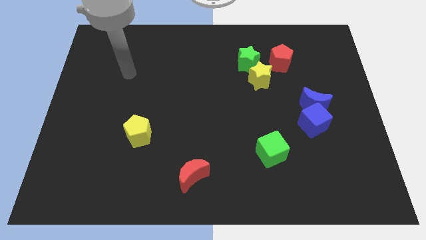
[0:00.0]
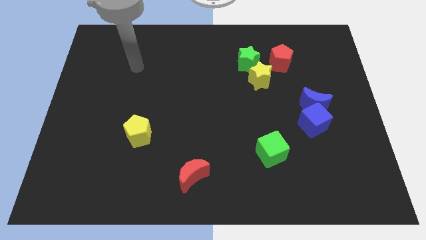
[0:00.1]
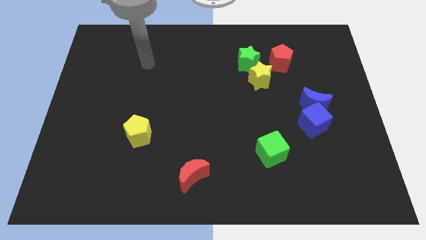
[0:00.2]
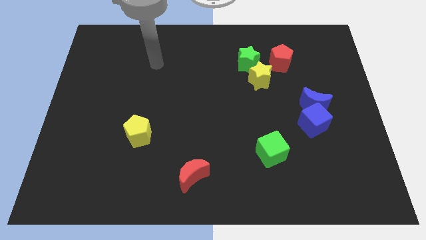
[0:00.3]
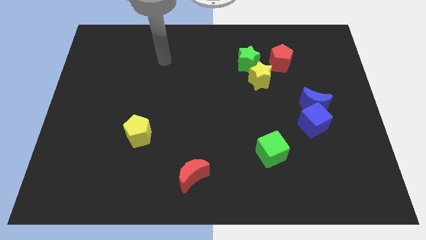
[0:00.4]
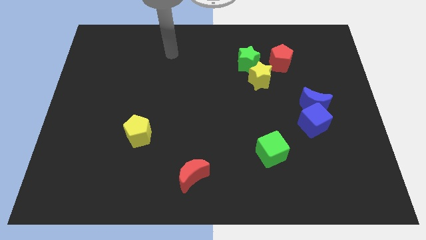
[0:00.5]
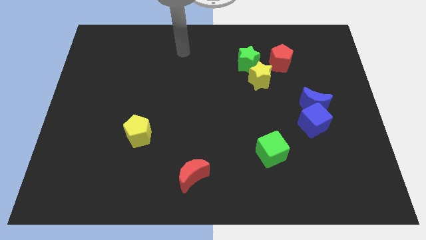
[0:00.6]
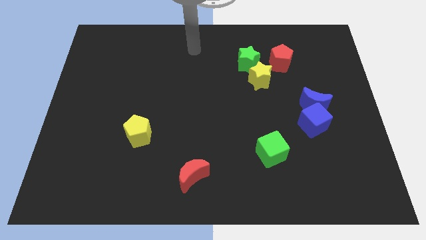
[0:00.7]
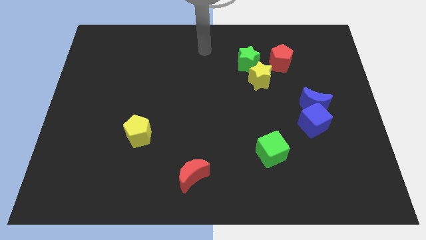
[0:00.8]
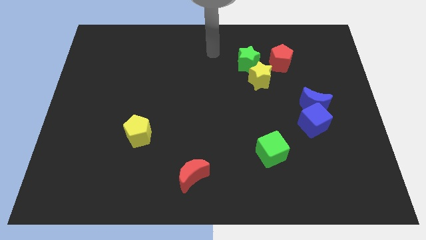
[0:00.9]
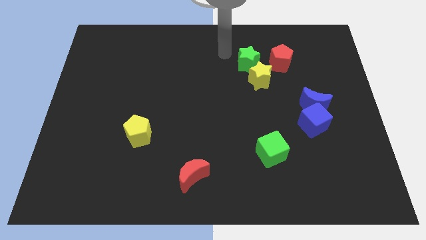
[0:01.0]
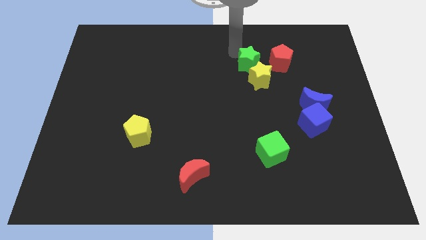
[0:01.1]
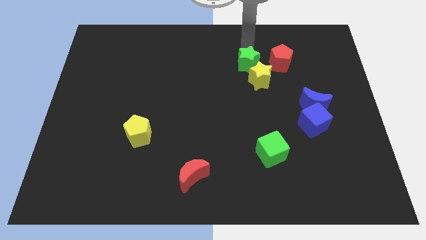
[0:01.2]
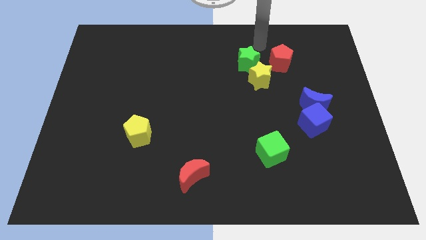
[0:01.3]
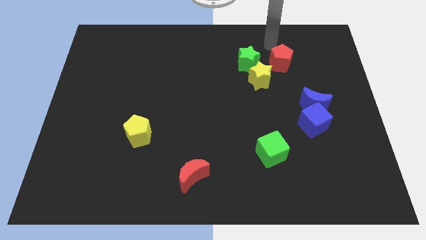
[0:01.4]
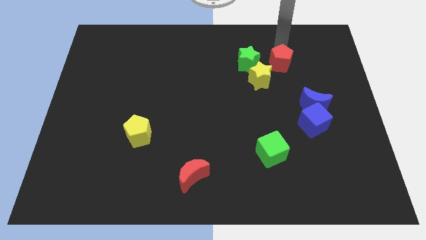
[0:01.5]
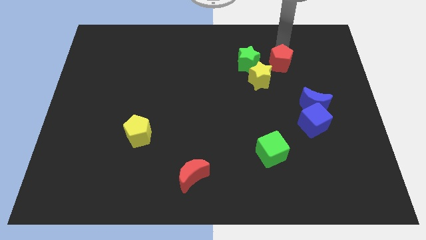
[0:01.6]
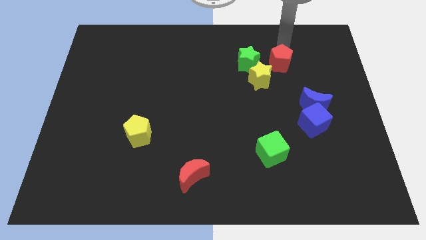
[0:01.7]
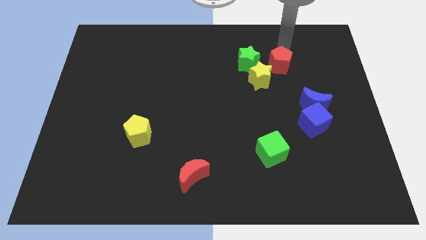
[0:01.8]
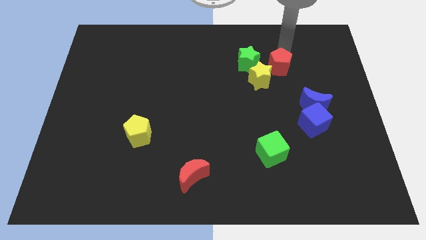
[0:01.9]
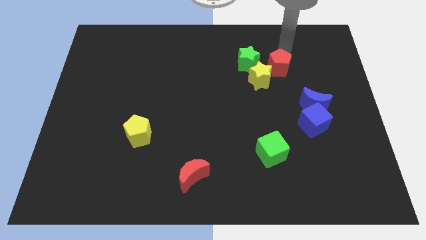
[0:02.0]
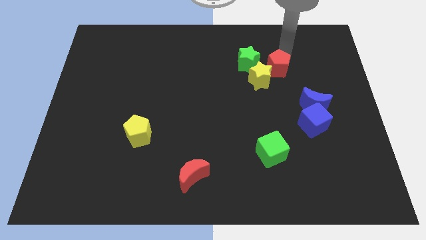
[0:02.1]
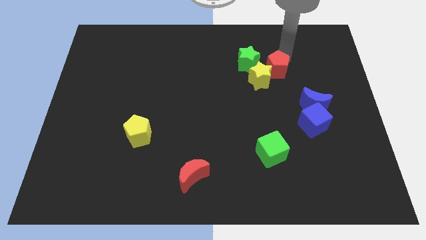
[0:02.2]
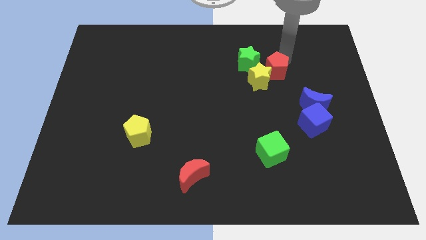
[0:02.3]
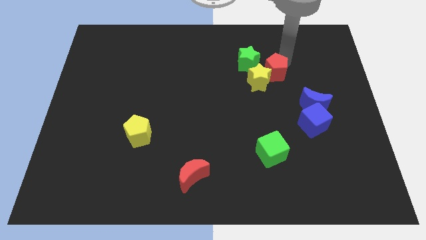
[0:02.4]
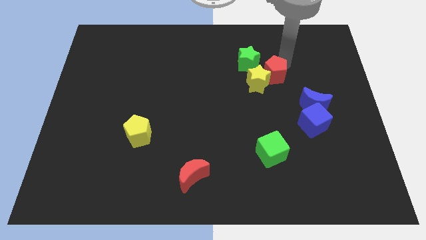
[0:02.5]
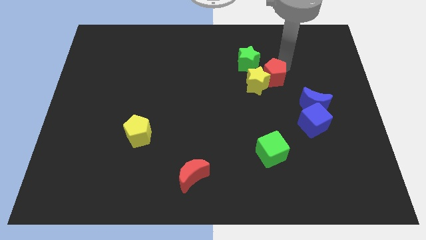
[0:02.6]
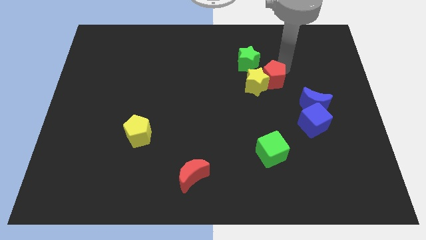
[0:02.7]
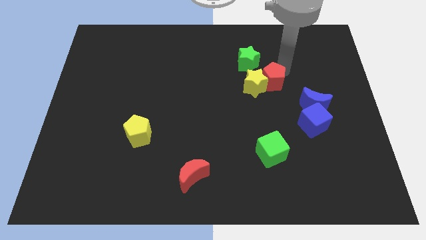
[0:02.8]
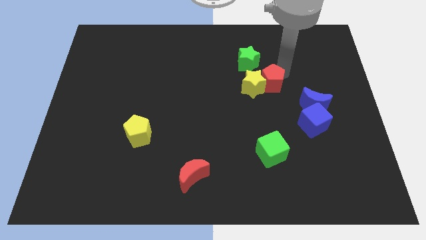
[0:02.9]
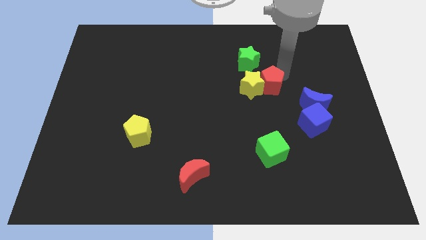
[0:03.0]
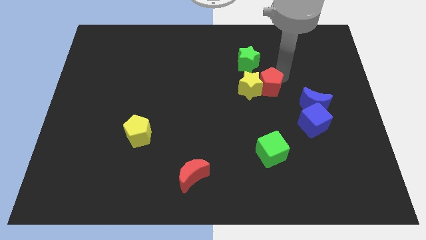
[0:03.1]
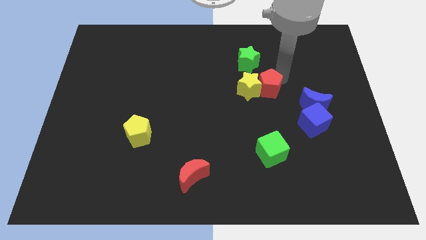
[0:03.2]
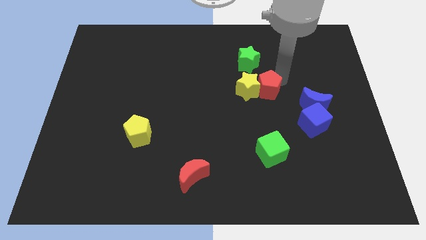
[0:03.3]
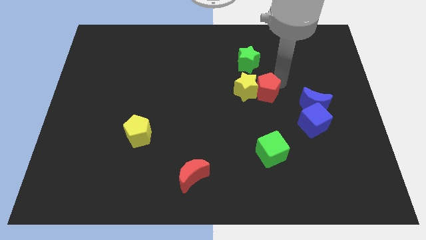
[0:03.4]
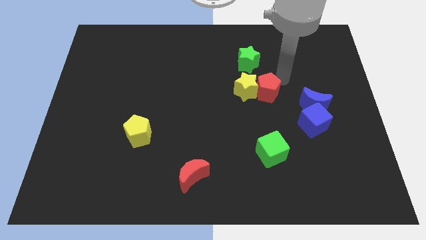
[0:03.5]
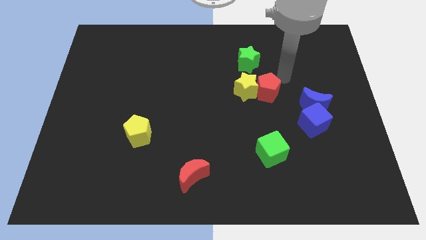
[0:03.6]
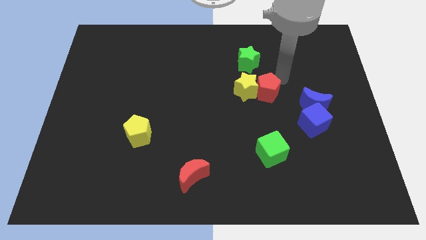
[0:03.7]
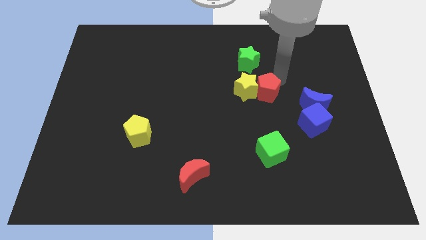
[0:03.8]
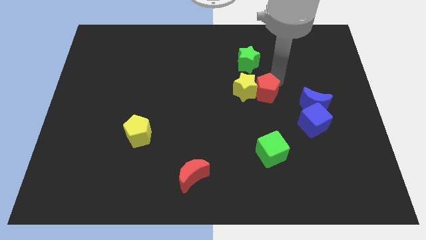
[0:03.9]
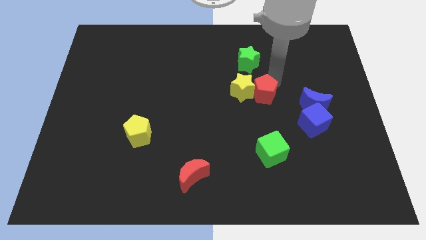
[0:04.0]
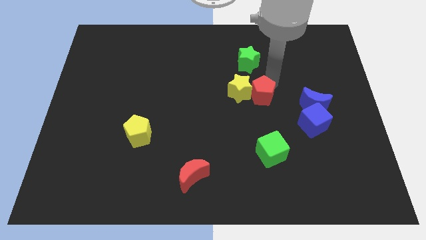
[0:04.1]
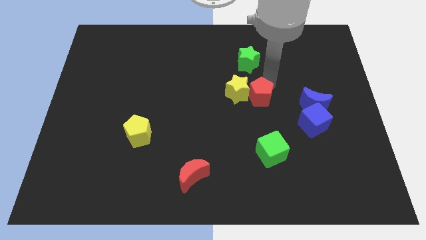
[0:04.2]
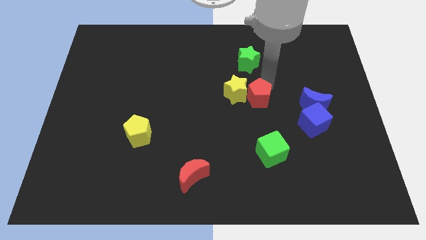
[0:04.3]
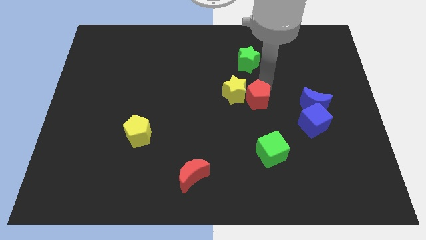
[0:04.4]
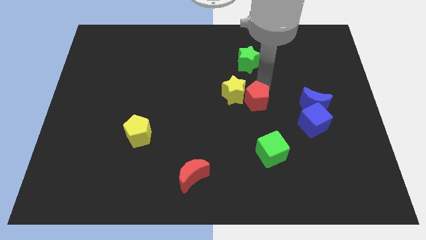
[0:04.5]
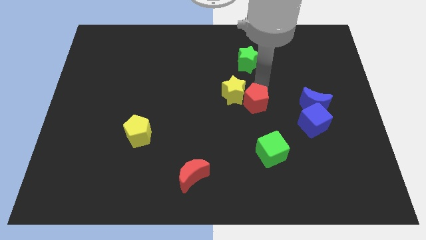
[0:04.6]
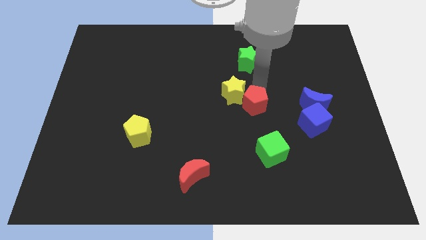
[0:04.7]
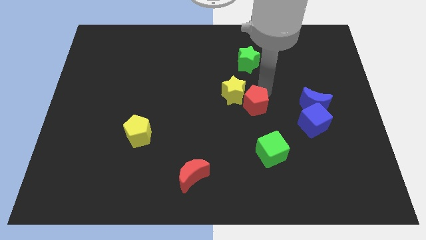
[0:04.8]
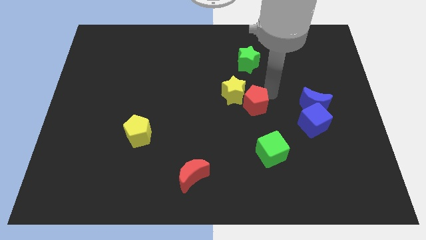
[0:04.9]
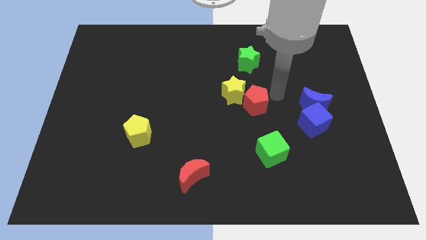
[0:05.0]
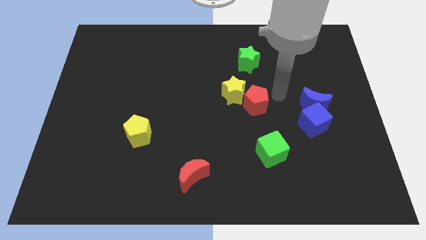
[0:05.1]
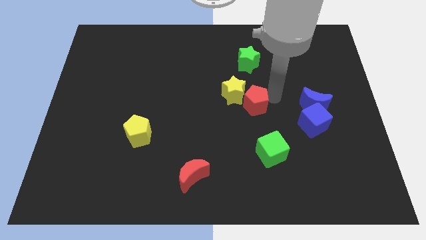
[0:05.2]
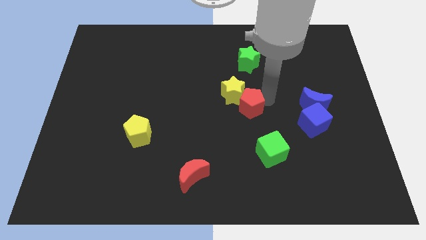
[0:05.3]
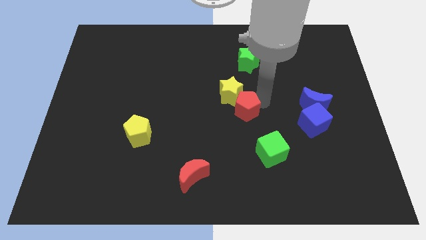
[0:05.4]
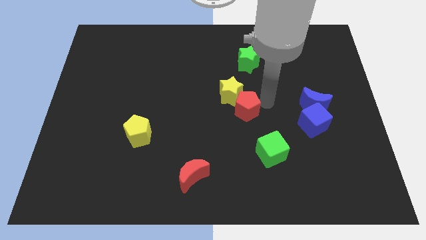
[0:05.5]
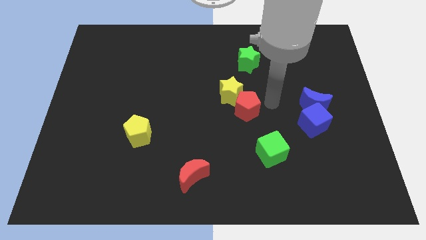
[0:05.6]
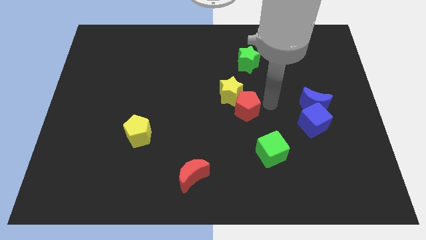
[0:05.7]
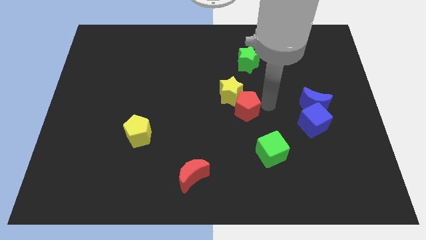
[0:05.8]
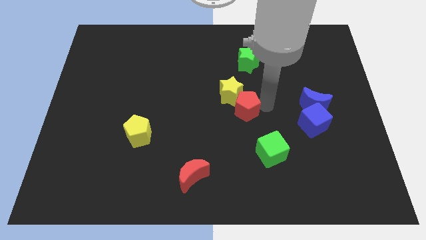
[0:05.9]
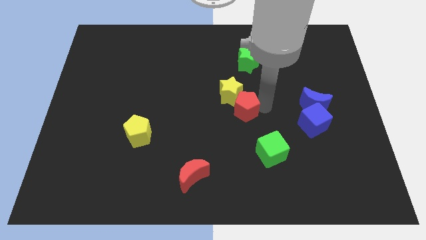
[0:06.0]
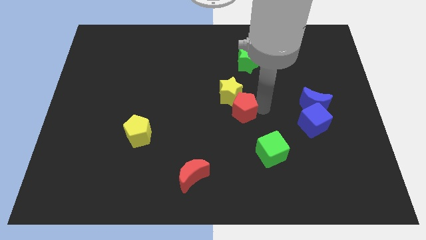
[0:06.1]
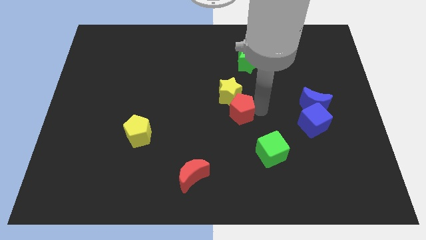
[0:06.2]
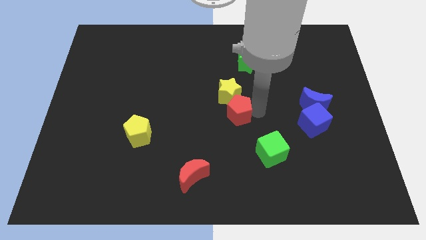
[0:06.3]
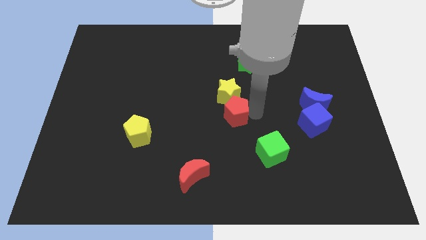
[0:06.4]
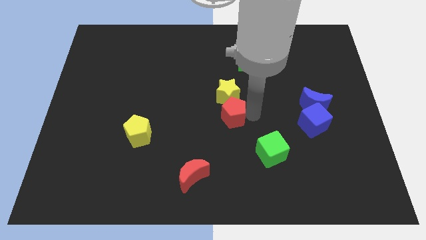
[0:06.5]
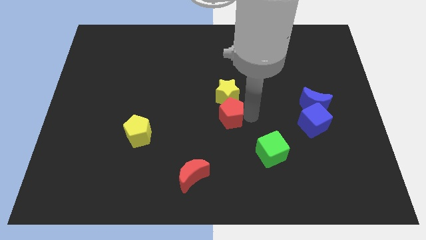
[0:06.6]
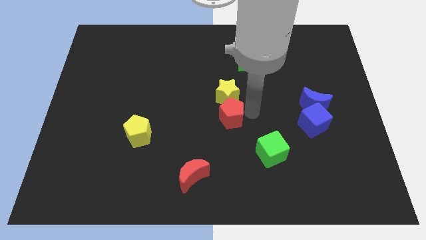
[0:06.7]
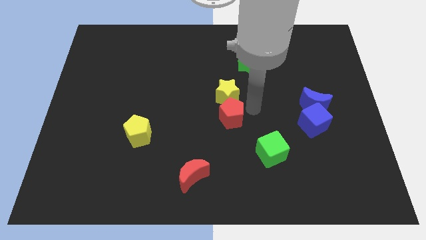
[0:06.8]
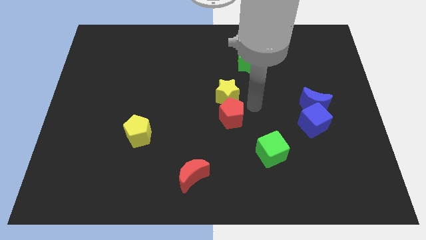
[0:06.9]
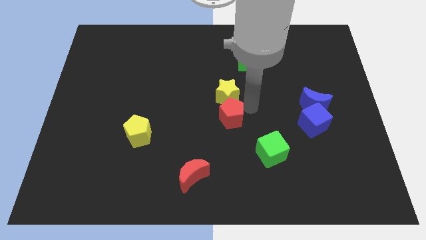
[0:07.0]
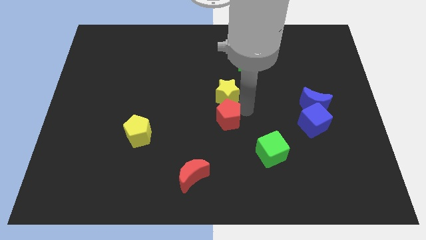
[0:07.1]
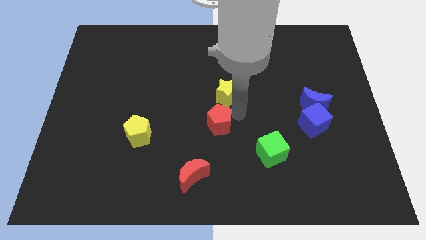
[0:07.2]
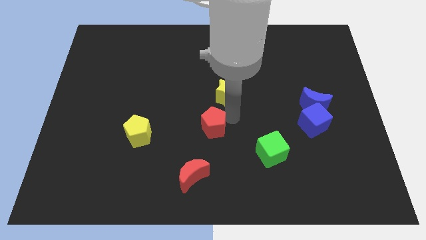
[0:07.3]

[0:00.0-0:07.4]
slide the red pentagon to the top side of the red moon
